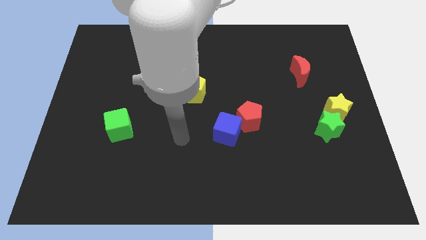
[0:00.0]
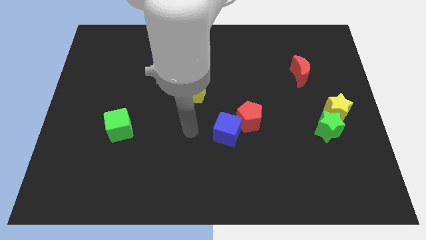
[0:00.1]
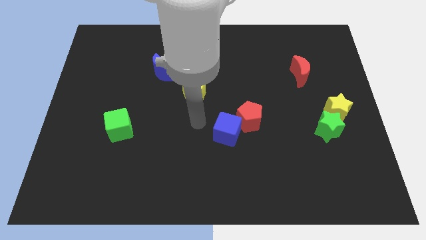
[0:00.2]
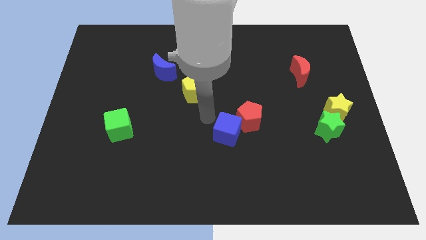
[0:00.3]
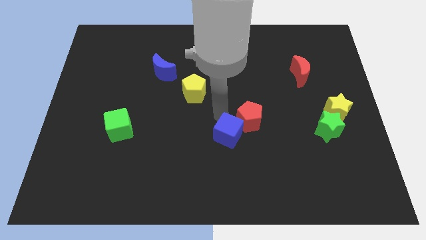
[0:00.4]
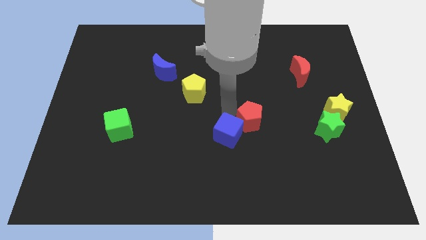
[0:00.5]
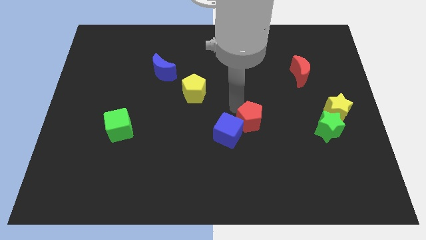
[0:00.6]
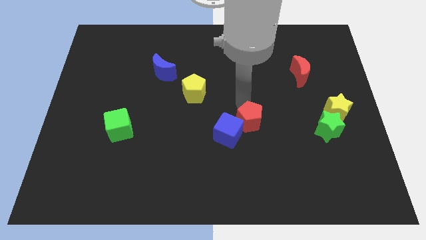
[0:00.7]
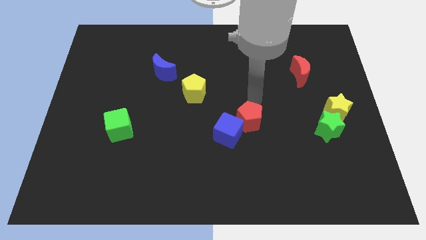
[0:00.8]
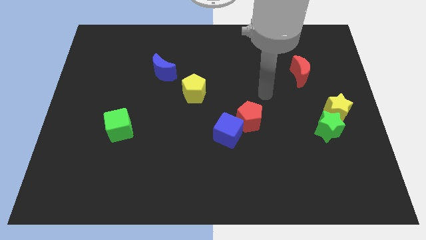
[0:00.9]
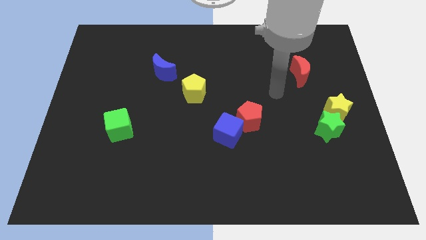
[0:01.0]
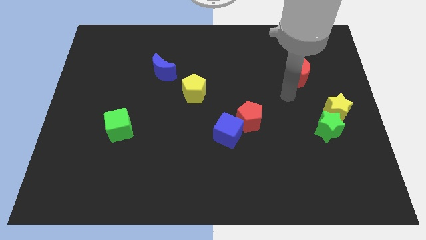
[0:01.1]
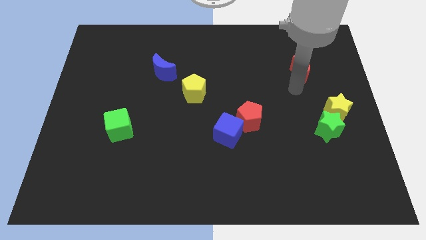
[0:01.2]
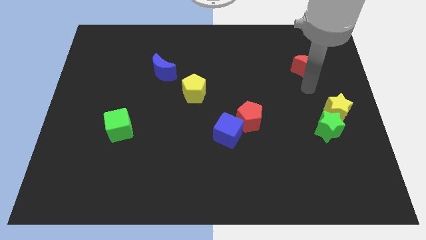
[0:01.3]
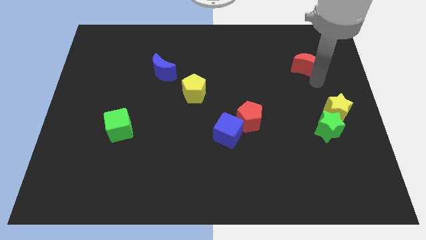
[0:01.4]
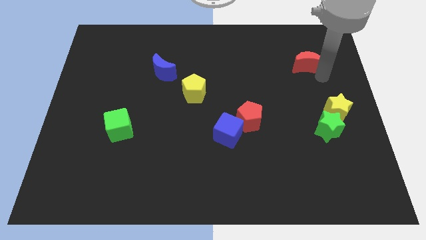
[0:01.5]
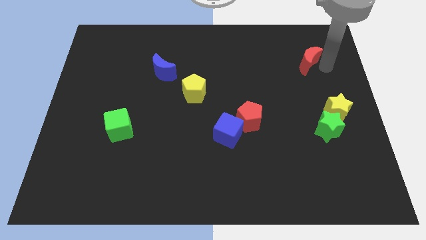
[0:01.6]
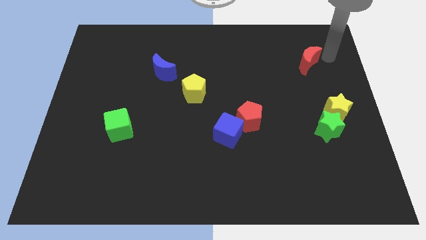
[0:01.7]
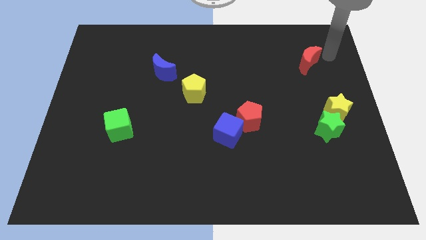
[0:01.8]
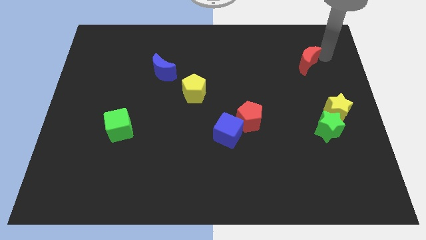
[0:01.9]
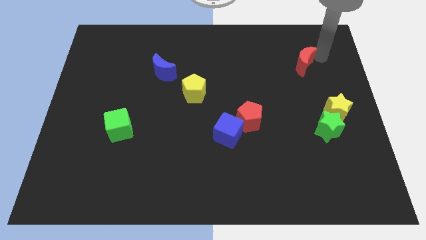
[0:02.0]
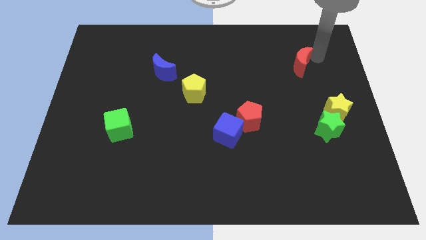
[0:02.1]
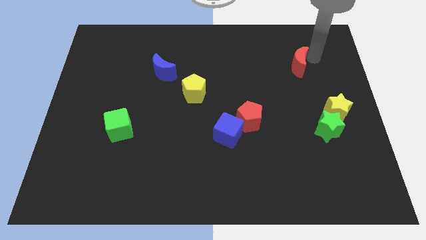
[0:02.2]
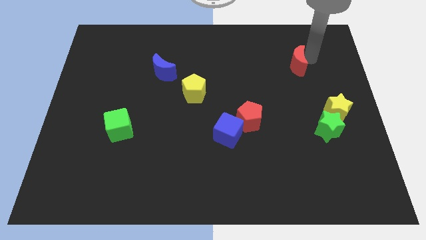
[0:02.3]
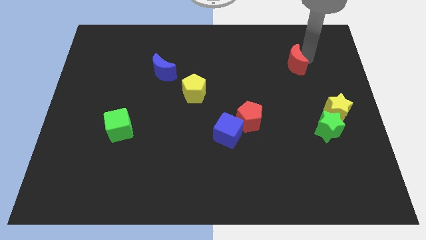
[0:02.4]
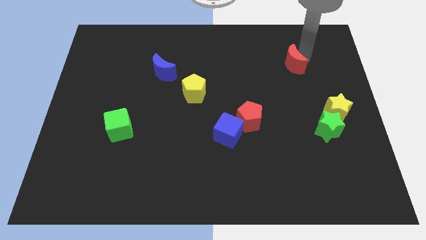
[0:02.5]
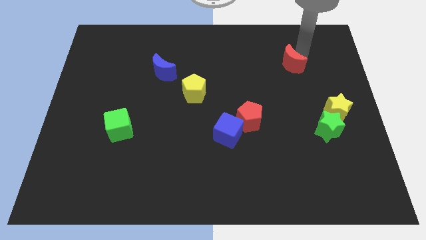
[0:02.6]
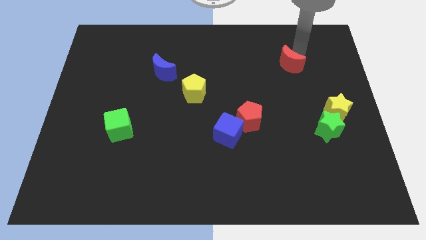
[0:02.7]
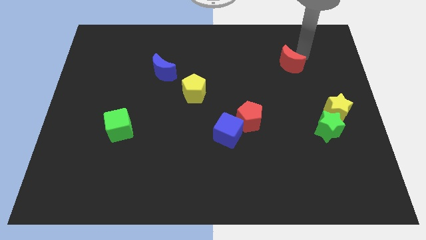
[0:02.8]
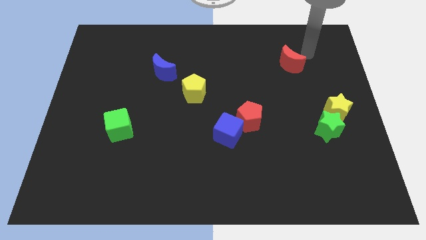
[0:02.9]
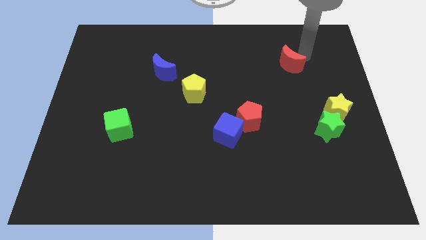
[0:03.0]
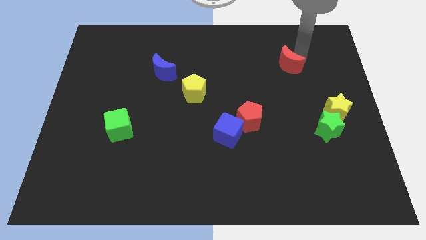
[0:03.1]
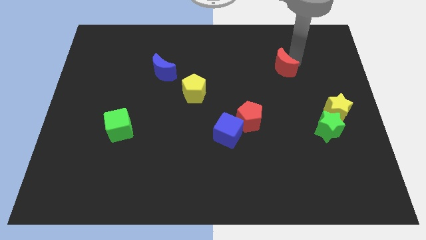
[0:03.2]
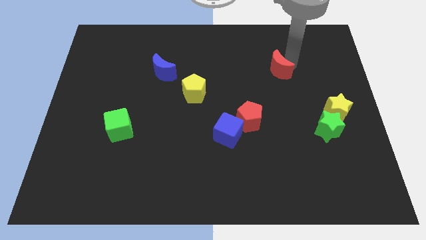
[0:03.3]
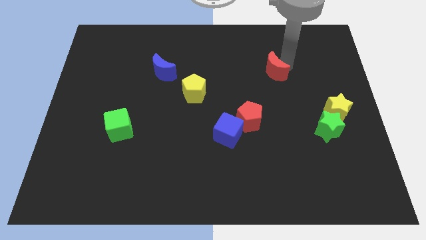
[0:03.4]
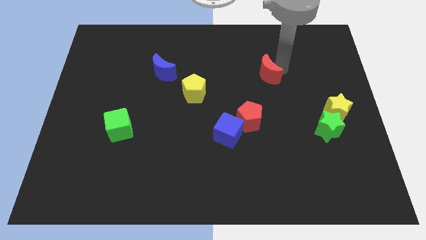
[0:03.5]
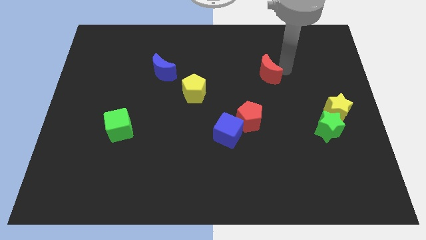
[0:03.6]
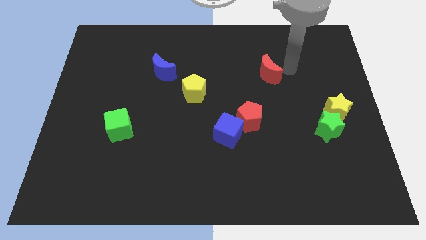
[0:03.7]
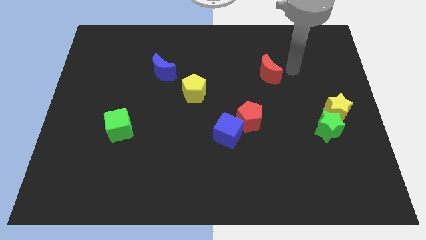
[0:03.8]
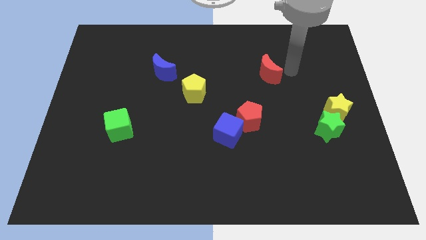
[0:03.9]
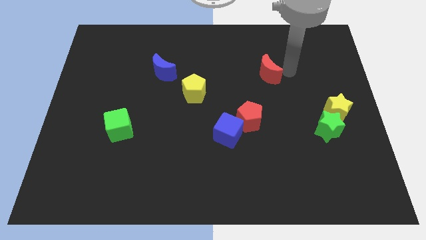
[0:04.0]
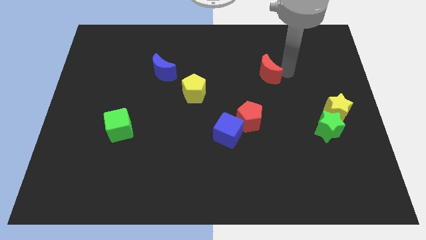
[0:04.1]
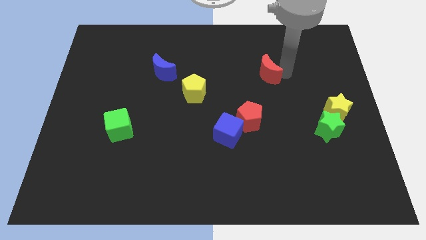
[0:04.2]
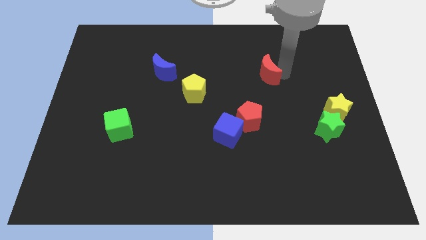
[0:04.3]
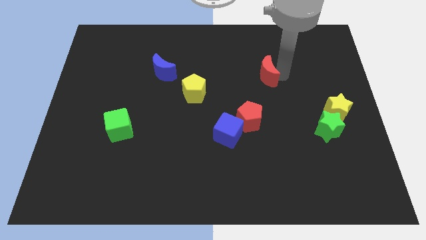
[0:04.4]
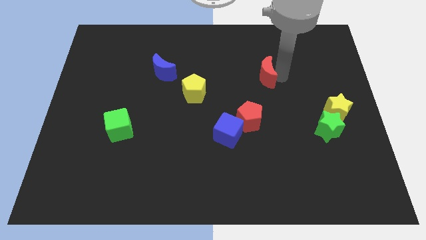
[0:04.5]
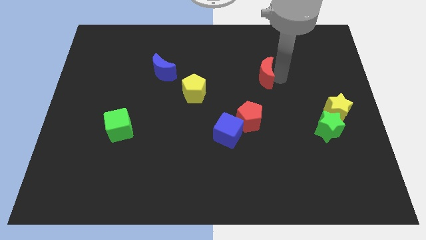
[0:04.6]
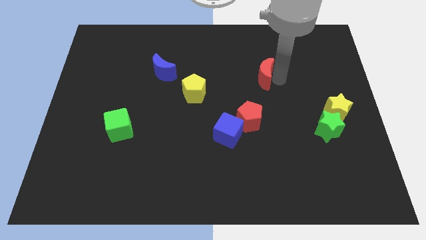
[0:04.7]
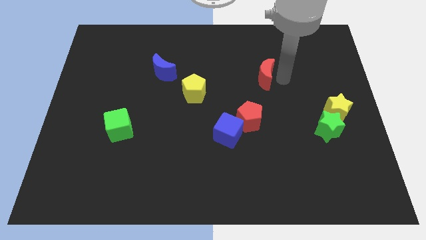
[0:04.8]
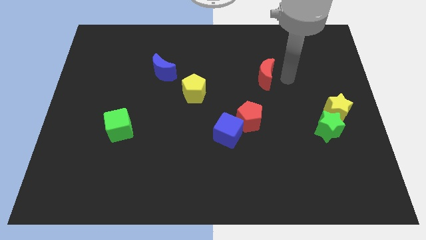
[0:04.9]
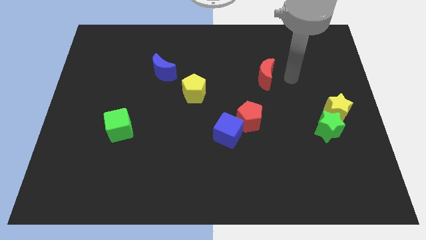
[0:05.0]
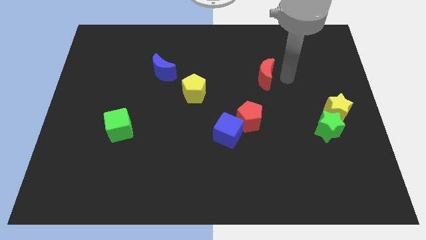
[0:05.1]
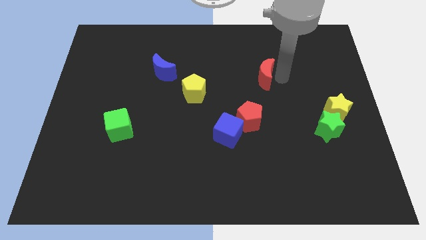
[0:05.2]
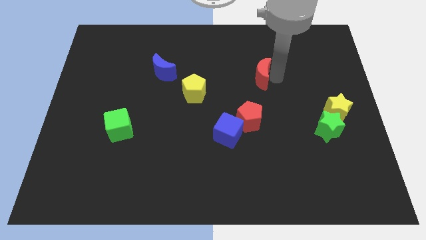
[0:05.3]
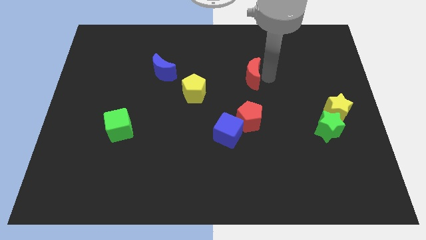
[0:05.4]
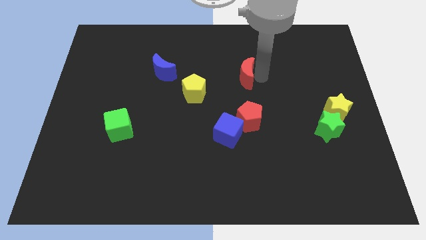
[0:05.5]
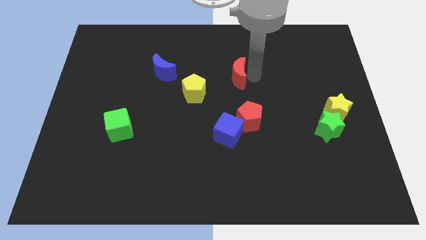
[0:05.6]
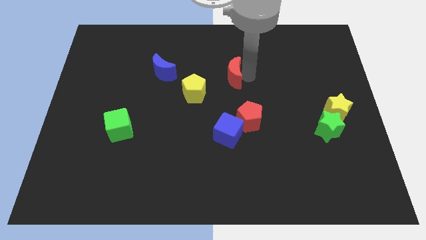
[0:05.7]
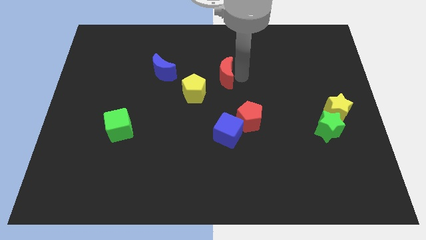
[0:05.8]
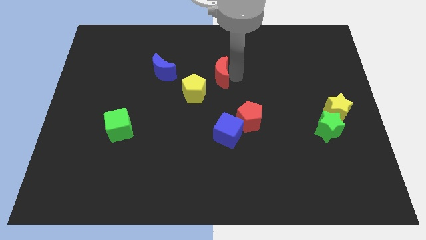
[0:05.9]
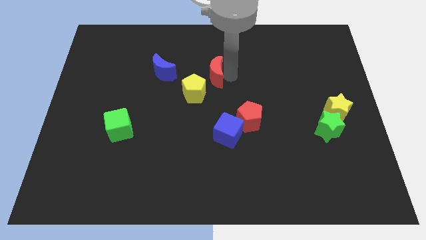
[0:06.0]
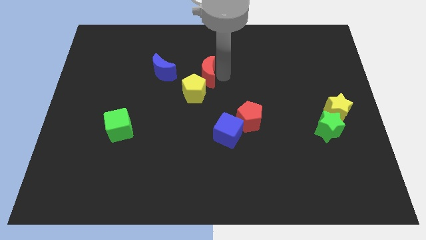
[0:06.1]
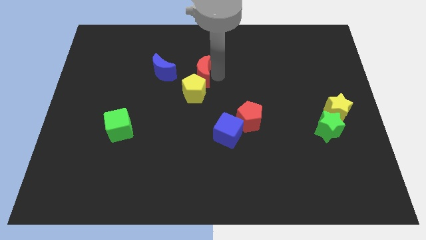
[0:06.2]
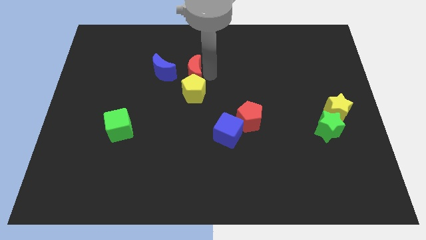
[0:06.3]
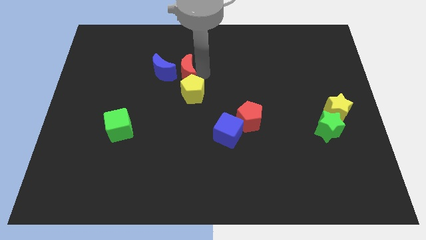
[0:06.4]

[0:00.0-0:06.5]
put the red moon next to the blue moon

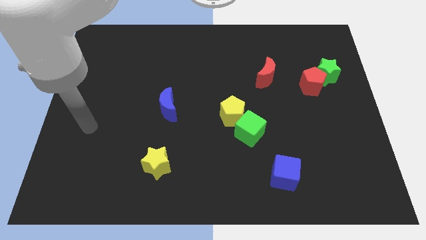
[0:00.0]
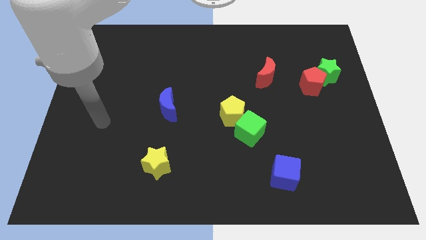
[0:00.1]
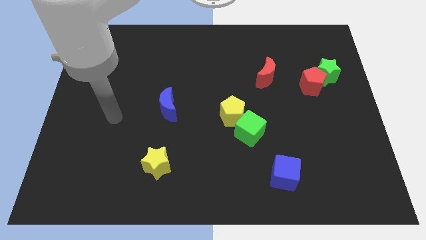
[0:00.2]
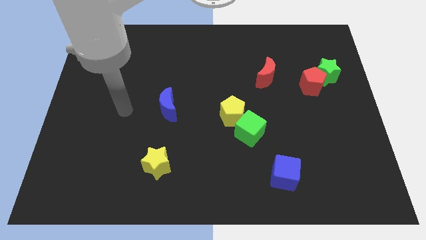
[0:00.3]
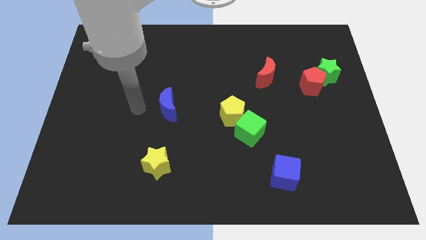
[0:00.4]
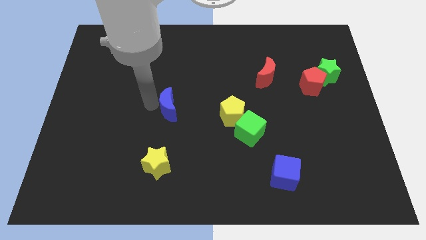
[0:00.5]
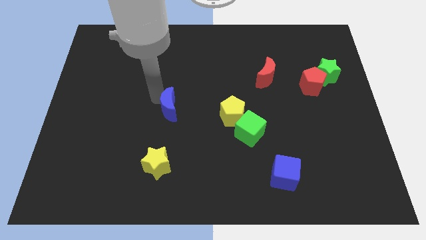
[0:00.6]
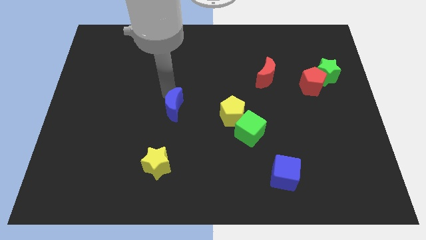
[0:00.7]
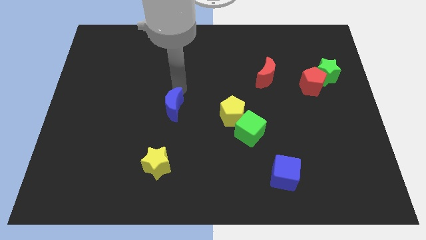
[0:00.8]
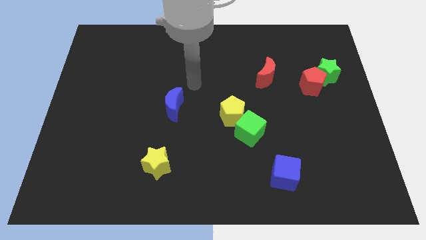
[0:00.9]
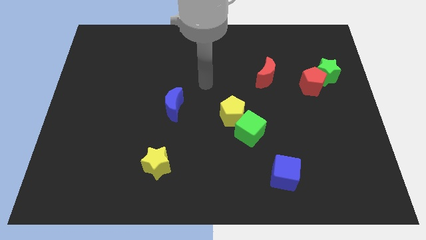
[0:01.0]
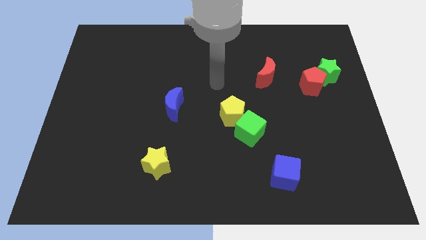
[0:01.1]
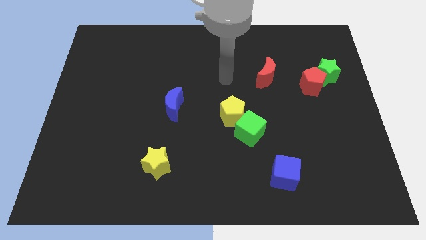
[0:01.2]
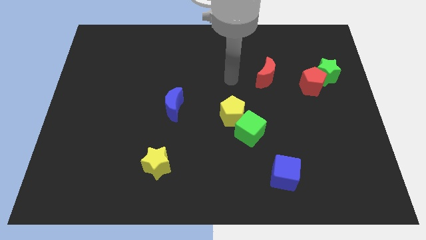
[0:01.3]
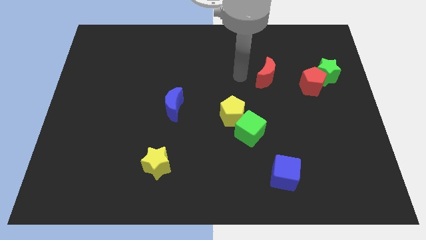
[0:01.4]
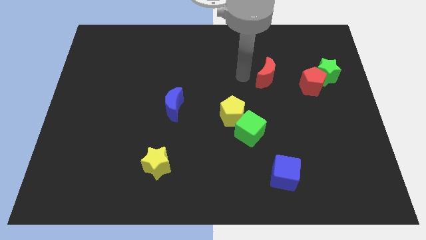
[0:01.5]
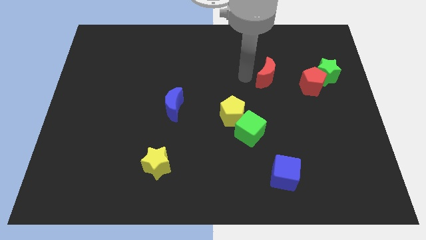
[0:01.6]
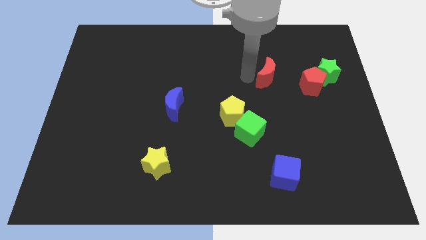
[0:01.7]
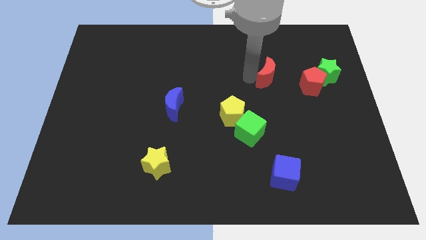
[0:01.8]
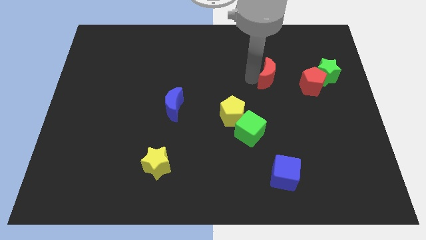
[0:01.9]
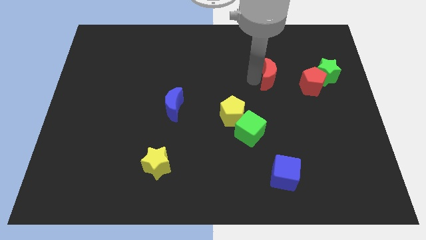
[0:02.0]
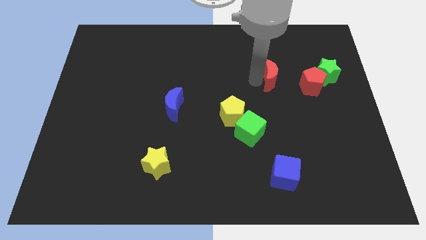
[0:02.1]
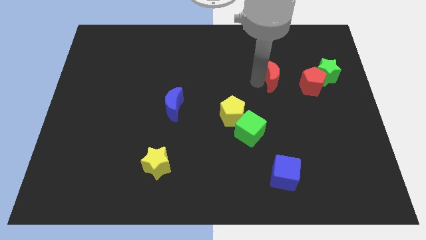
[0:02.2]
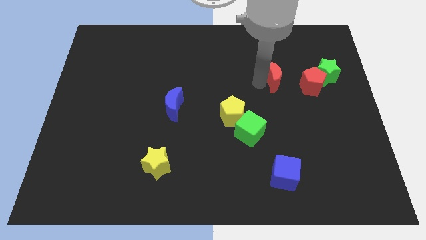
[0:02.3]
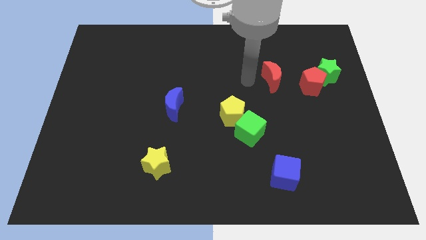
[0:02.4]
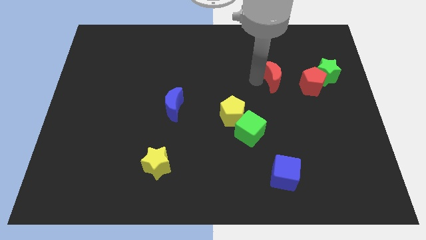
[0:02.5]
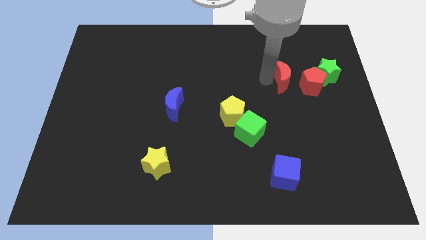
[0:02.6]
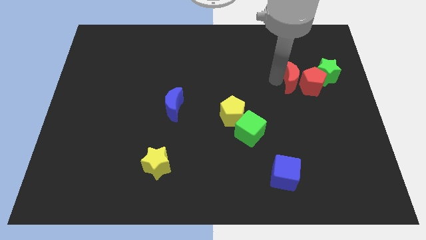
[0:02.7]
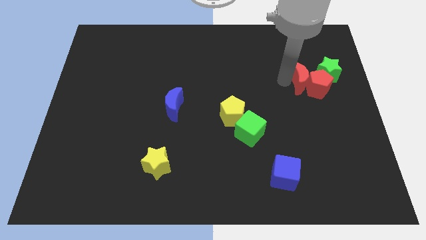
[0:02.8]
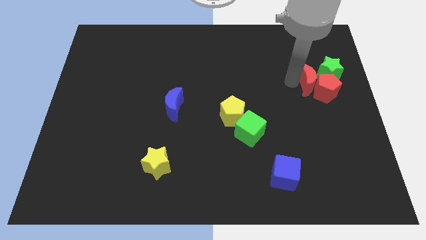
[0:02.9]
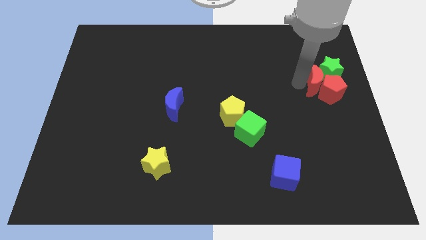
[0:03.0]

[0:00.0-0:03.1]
put the red moon towards the green star
